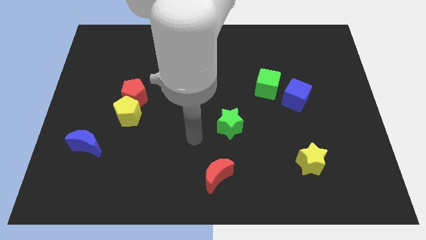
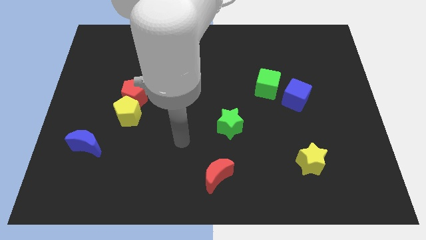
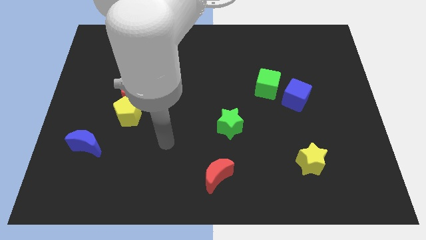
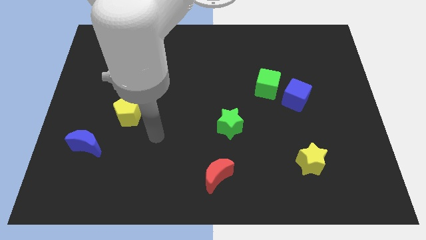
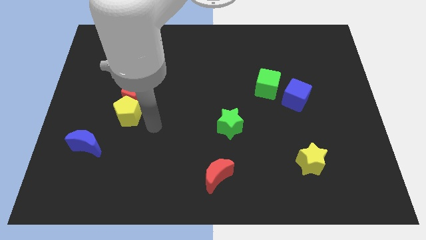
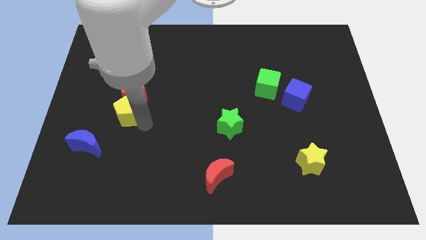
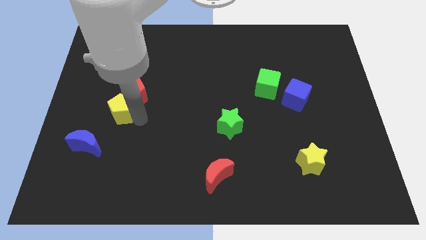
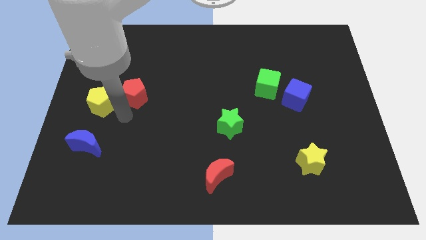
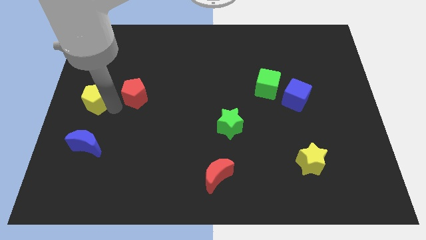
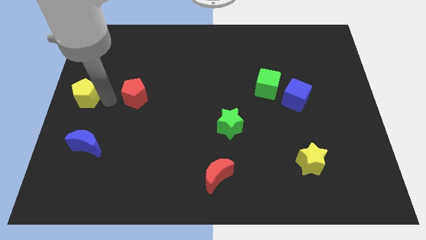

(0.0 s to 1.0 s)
move the red pentagon away from the yellow pentagon

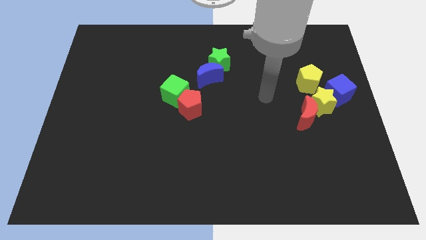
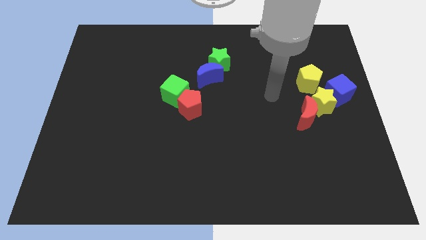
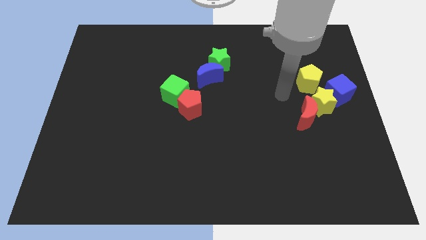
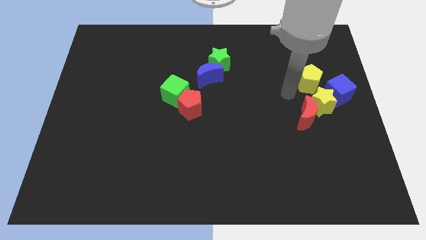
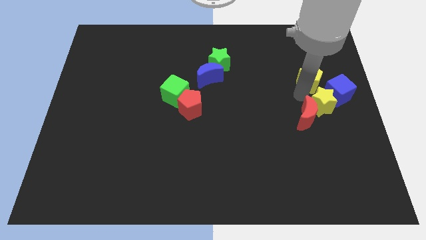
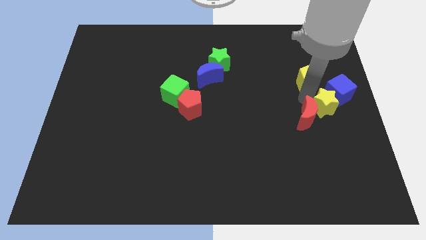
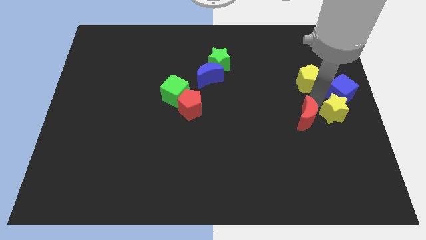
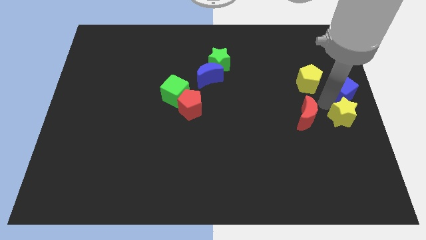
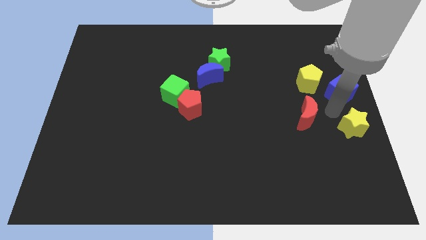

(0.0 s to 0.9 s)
separate the red moon from the yellow star

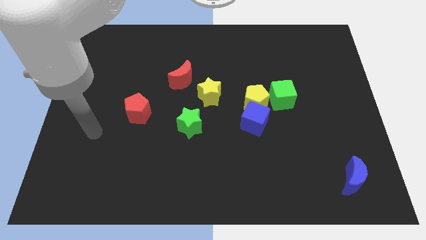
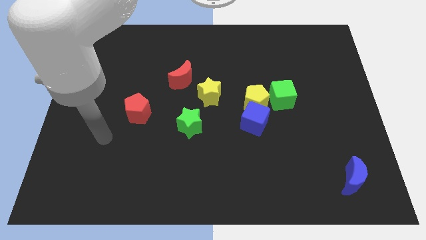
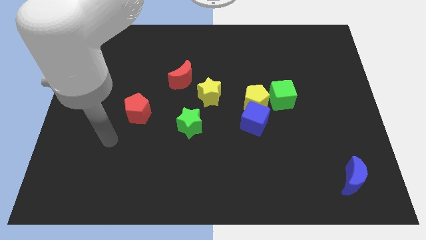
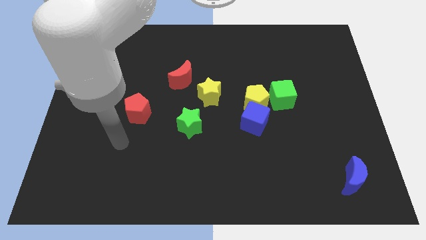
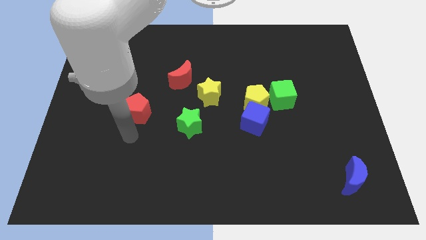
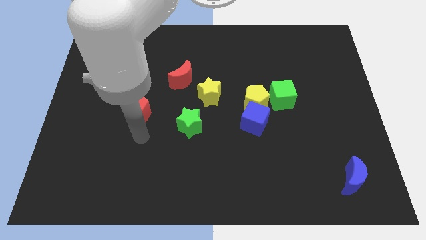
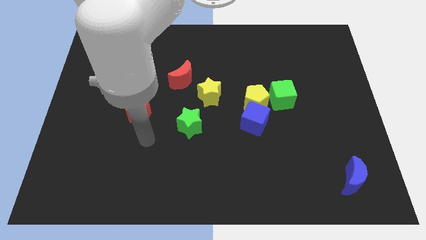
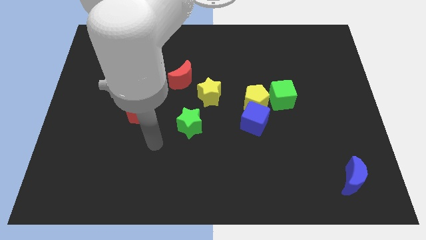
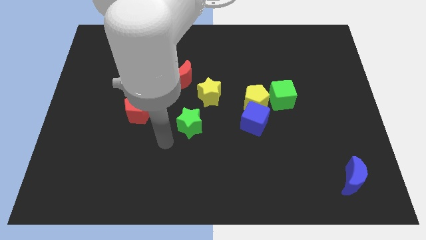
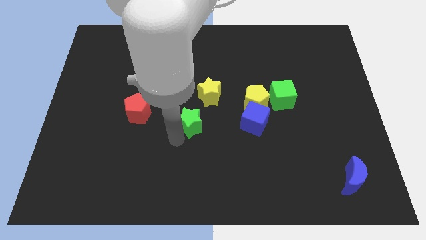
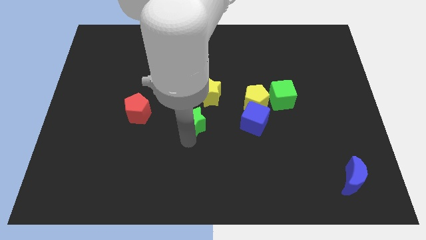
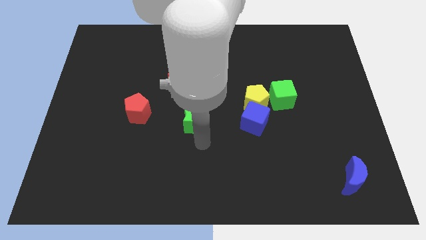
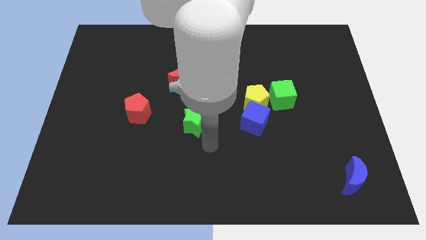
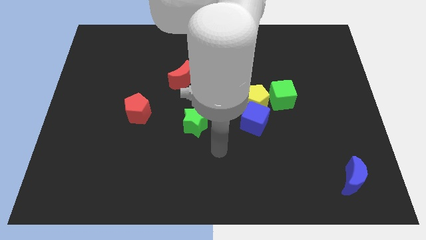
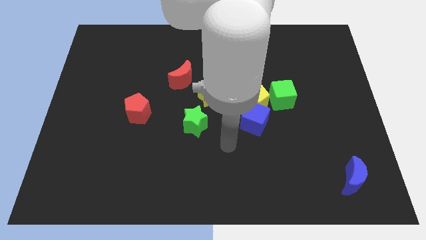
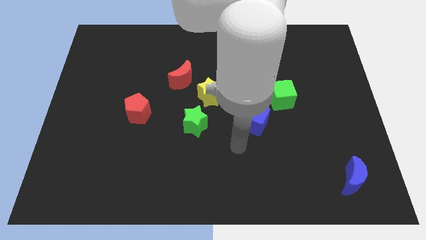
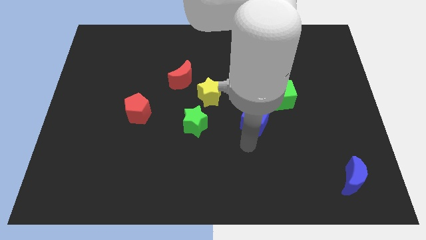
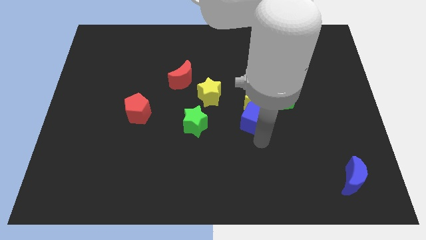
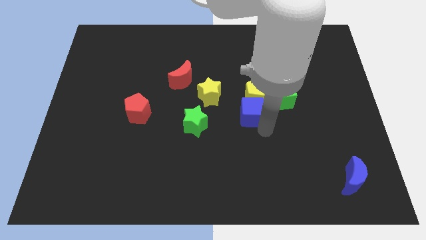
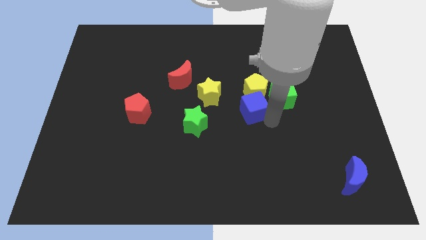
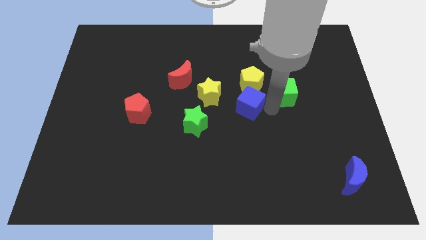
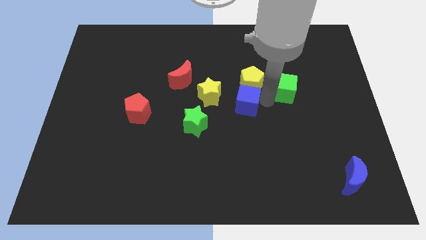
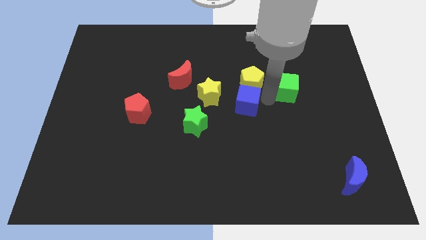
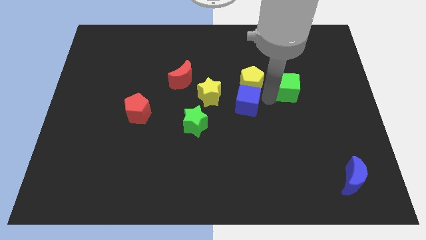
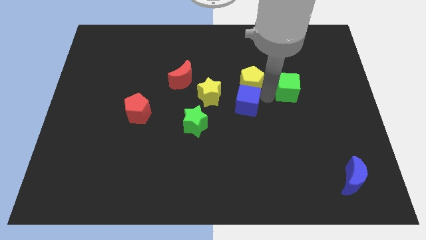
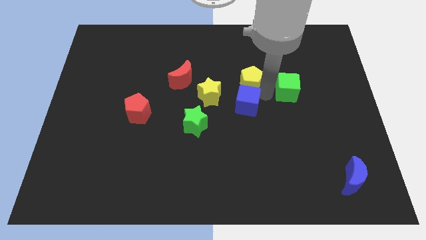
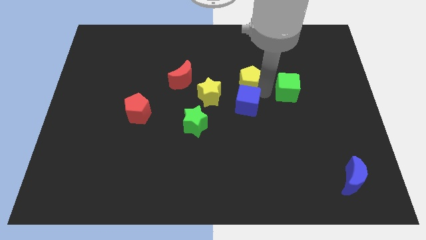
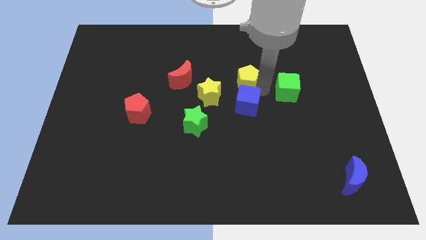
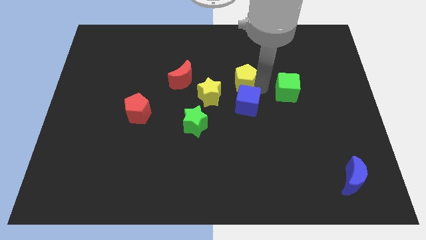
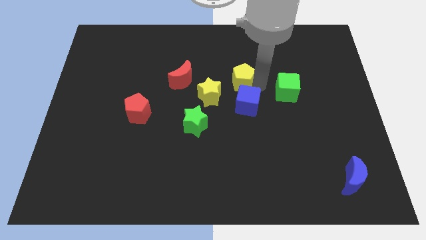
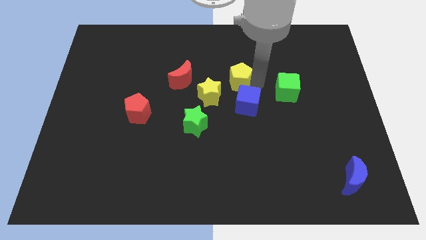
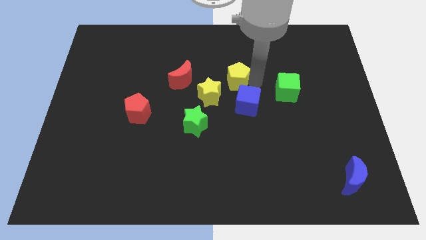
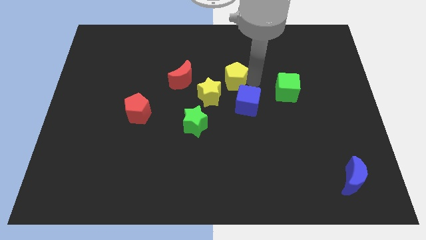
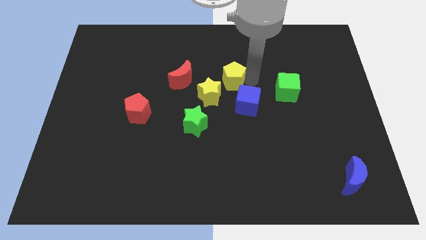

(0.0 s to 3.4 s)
move the yellow pentagon away from the blue cube and green cube

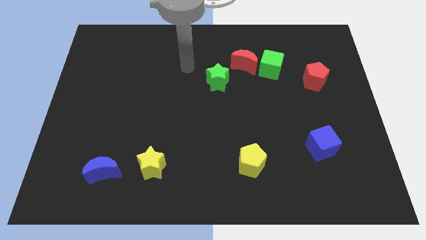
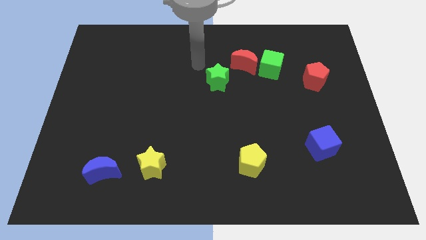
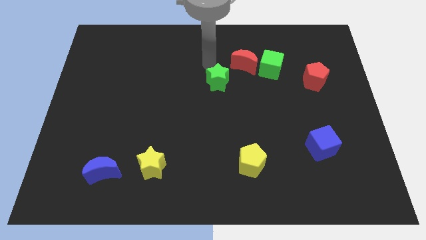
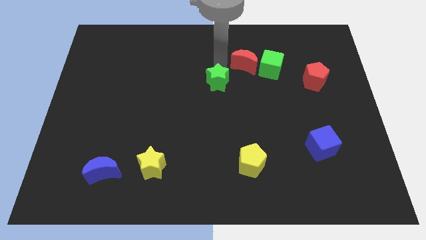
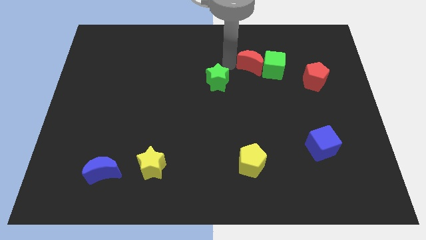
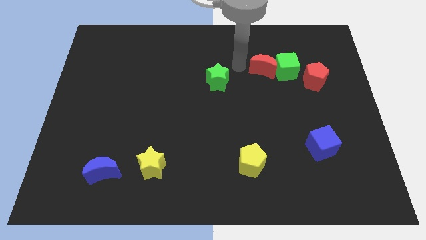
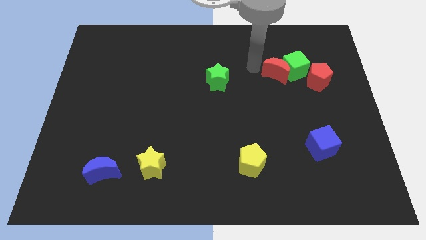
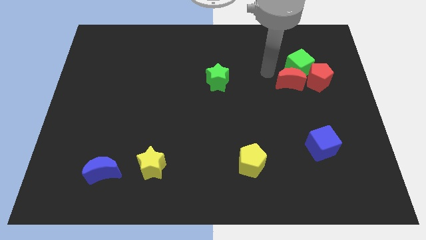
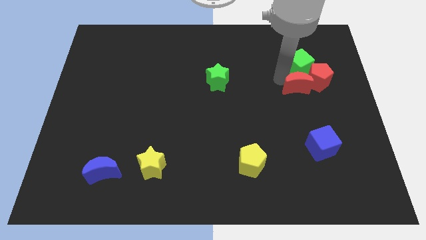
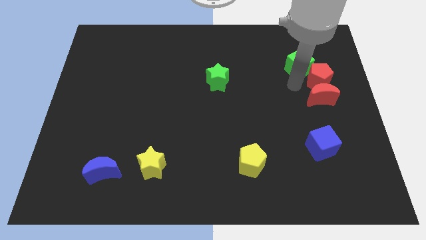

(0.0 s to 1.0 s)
move the green cube away from the red moon

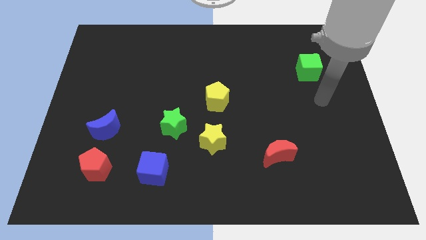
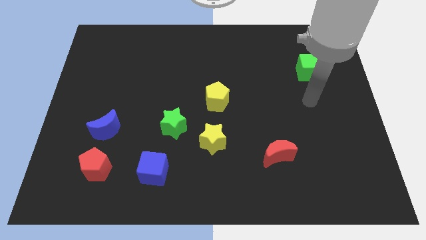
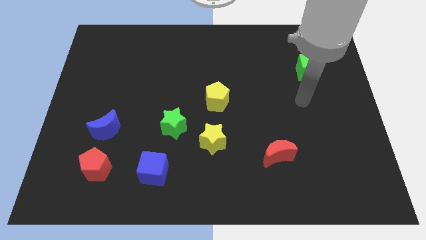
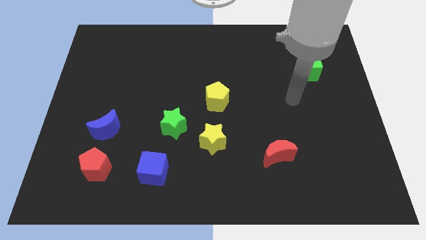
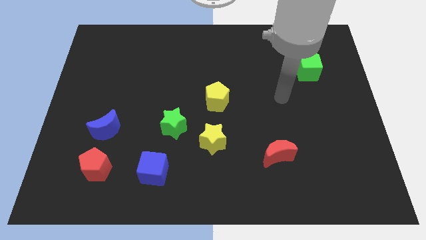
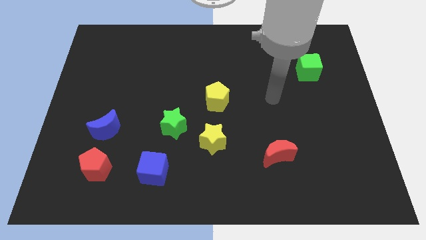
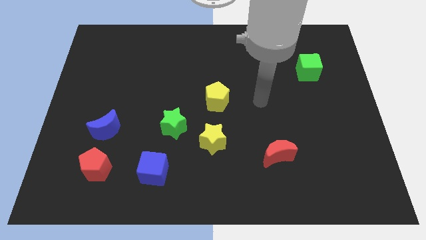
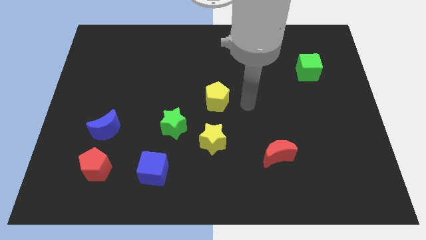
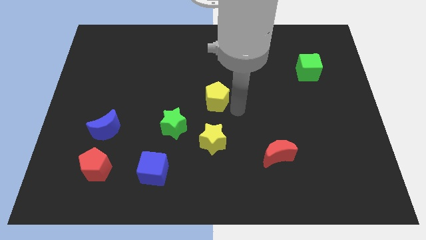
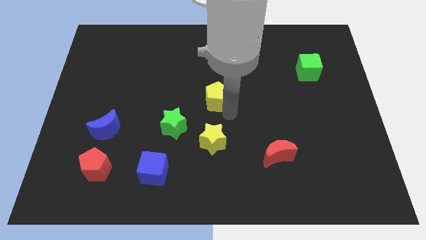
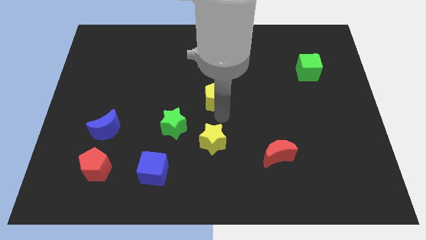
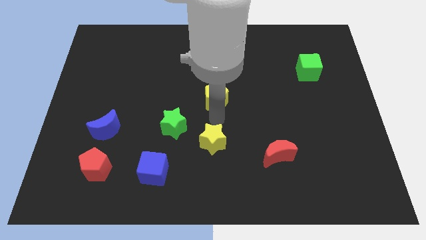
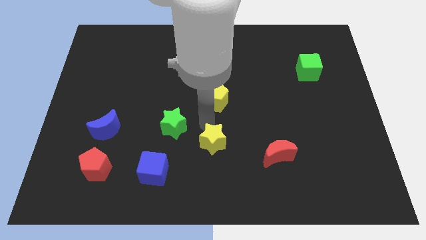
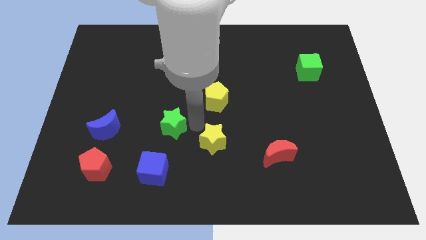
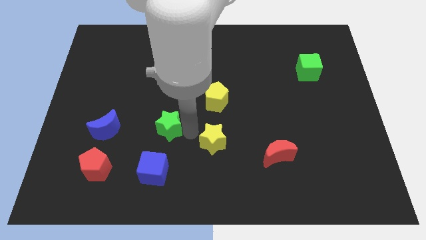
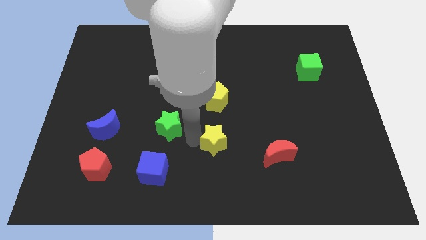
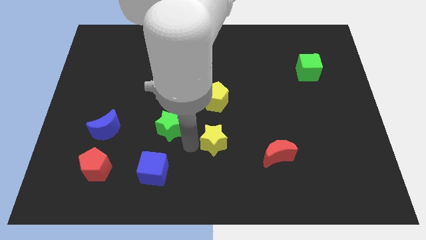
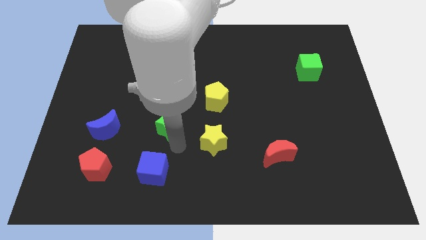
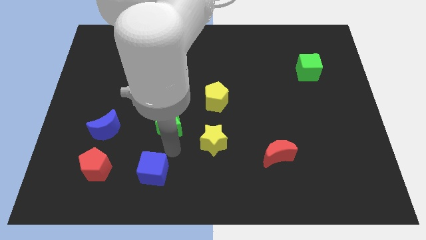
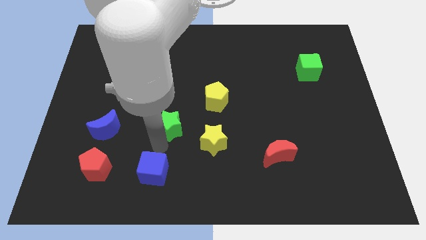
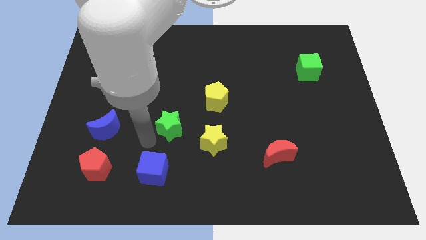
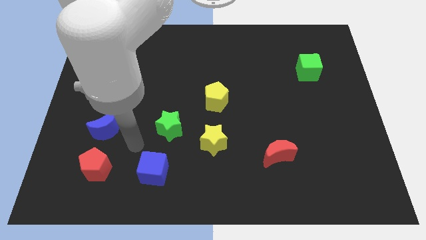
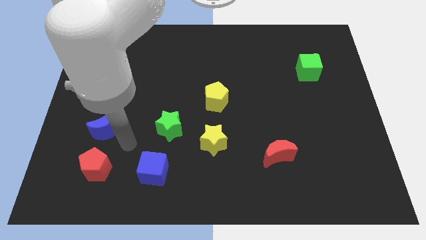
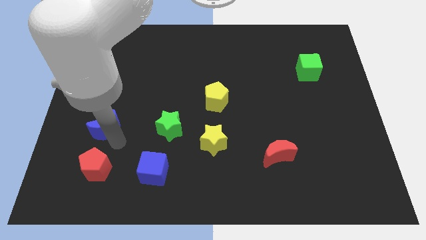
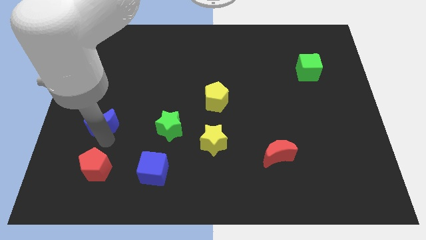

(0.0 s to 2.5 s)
separate the red pentagon from the blue moon

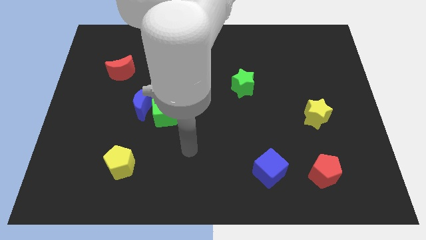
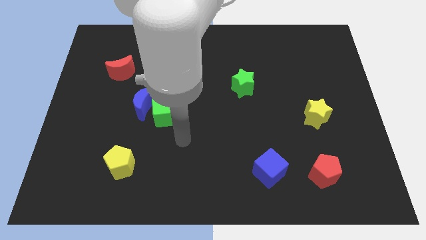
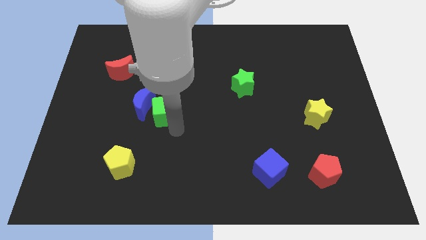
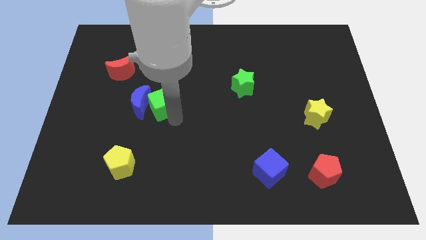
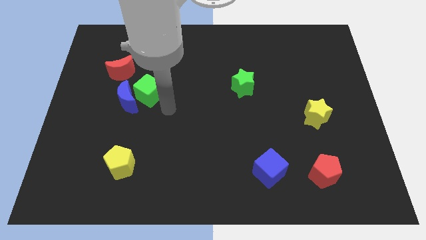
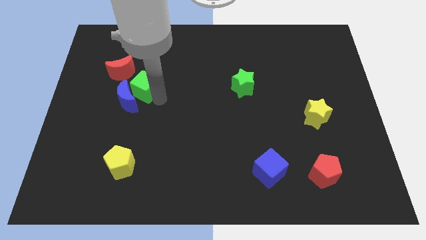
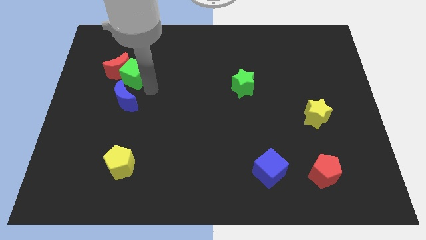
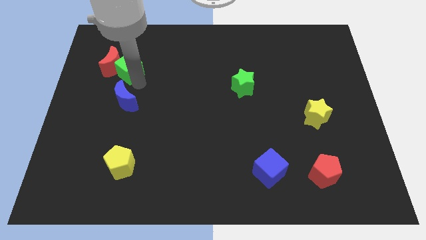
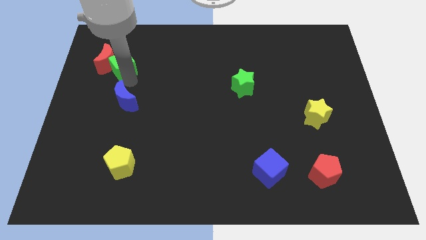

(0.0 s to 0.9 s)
move the blue moon away from the green cube
